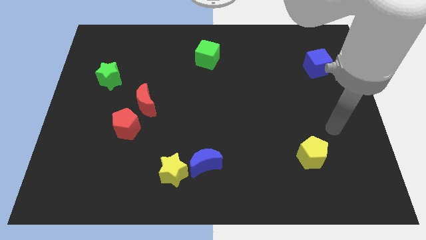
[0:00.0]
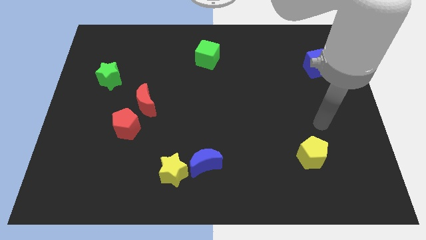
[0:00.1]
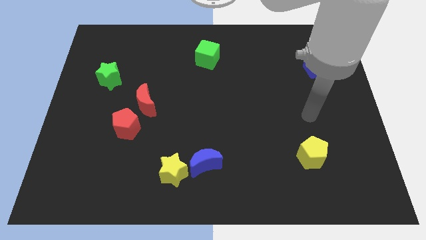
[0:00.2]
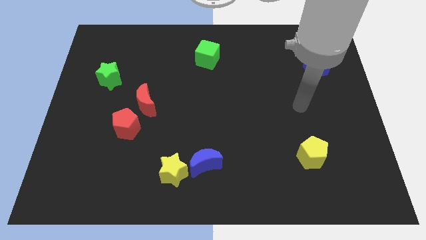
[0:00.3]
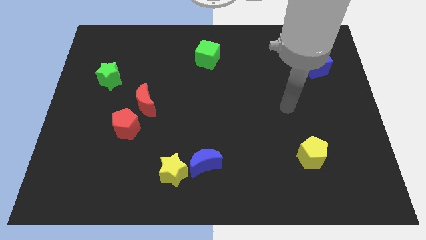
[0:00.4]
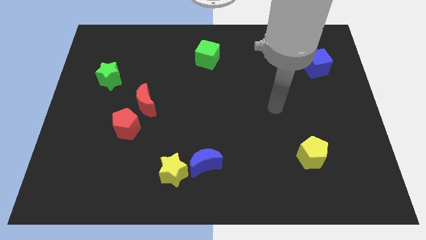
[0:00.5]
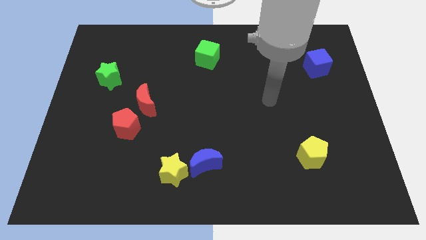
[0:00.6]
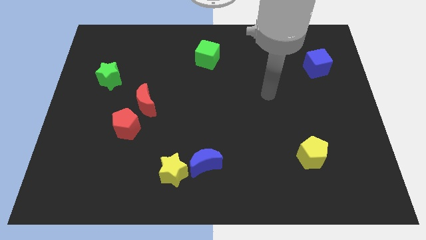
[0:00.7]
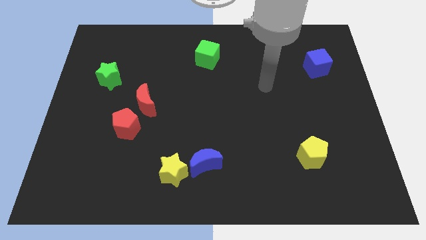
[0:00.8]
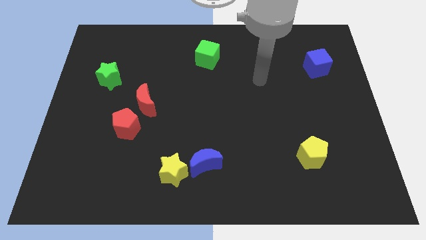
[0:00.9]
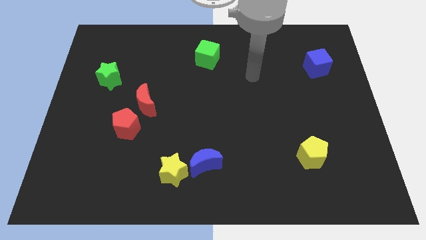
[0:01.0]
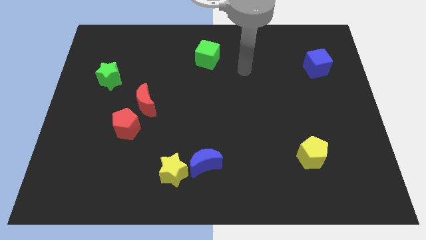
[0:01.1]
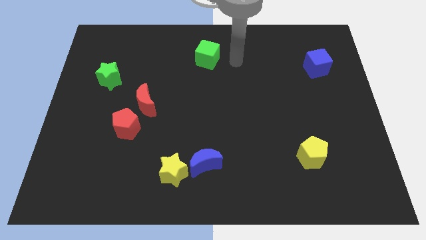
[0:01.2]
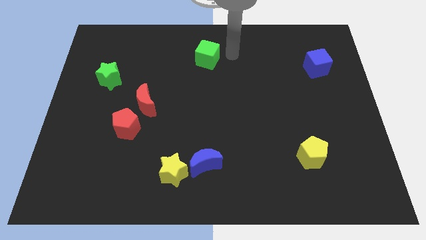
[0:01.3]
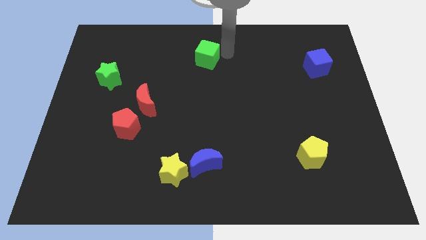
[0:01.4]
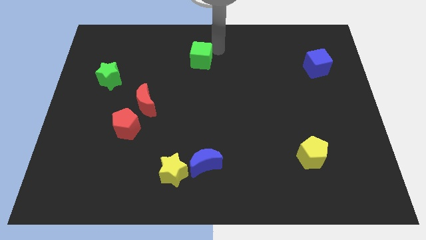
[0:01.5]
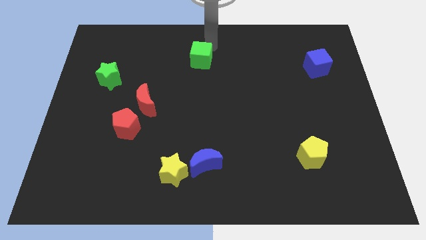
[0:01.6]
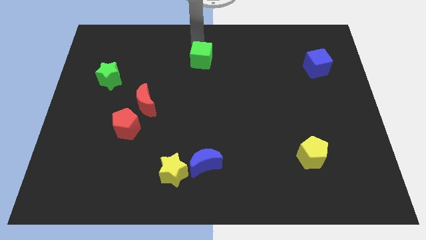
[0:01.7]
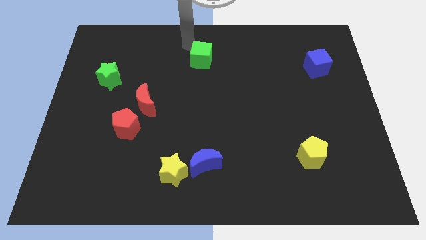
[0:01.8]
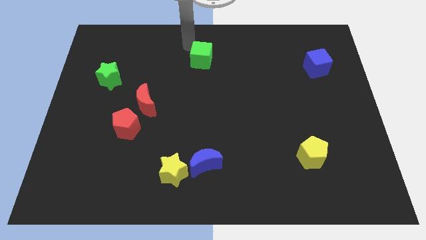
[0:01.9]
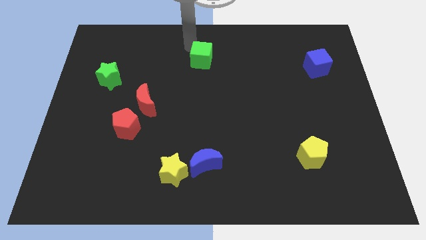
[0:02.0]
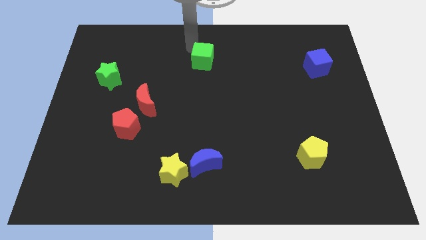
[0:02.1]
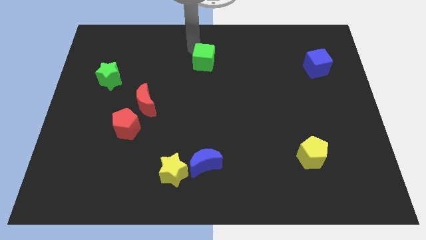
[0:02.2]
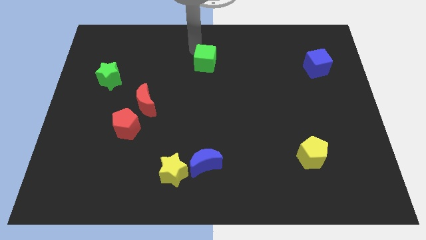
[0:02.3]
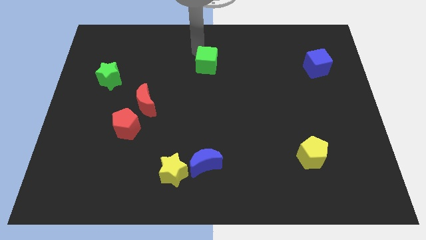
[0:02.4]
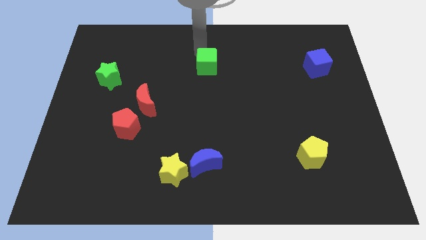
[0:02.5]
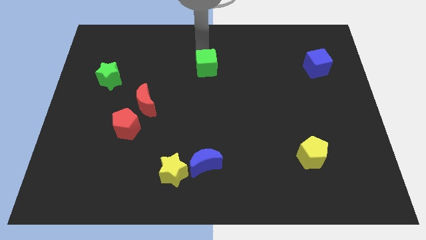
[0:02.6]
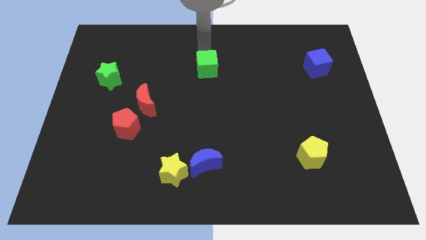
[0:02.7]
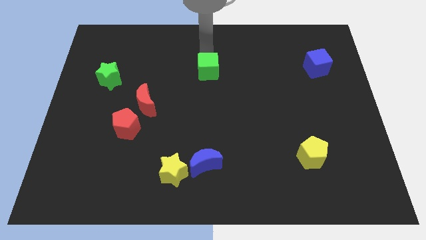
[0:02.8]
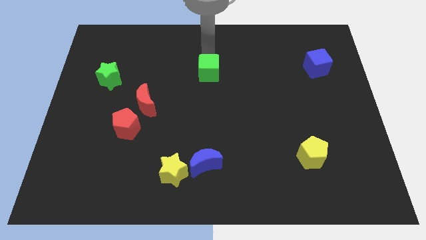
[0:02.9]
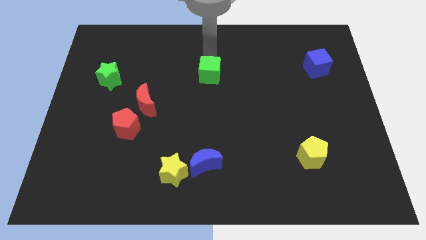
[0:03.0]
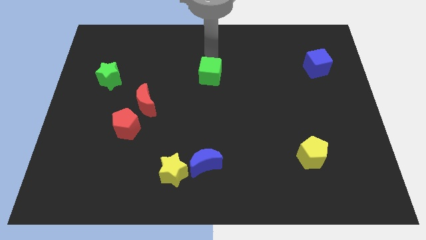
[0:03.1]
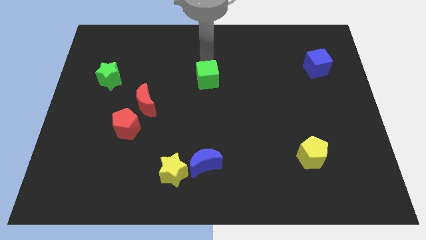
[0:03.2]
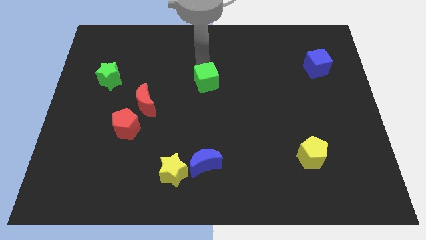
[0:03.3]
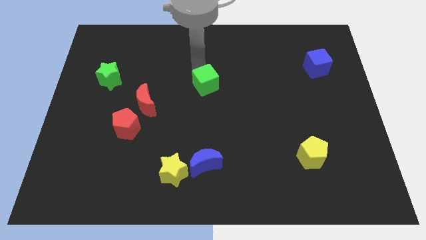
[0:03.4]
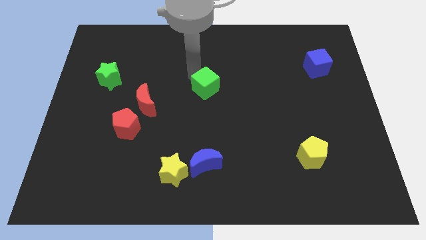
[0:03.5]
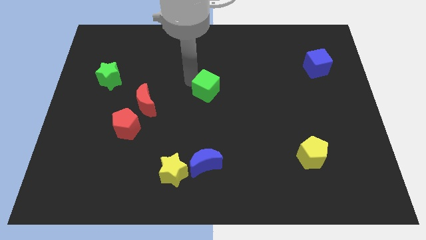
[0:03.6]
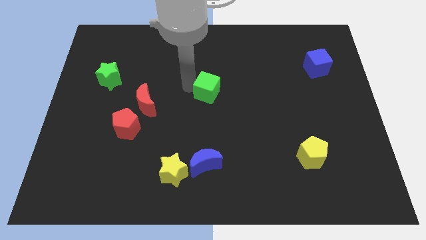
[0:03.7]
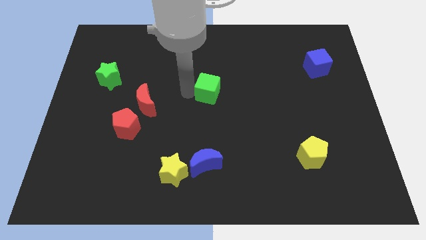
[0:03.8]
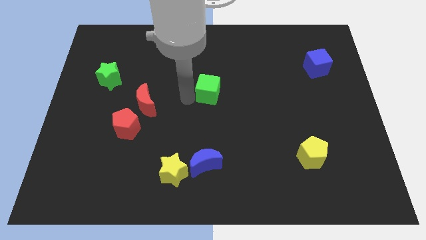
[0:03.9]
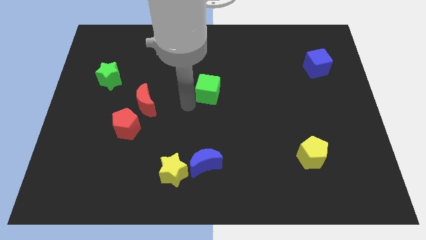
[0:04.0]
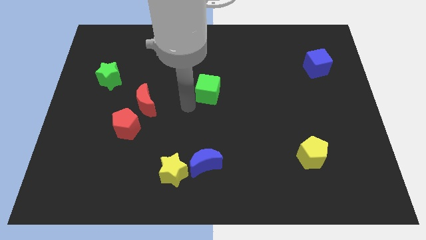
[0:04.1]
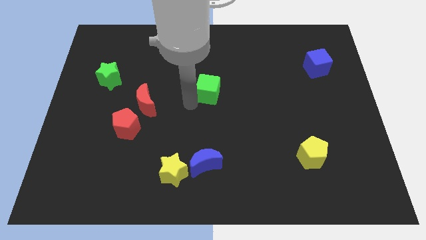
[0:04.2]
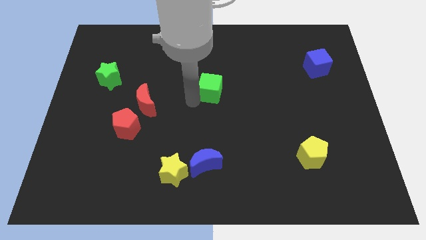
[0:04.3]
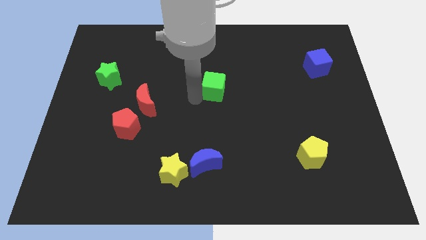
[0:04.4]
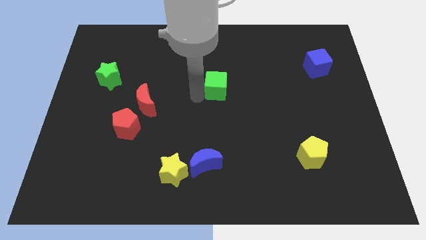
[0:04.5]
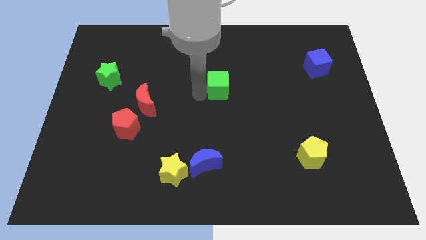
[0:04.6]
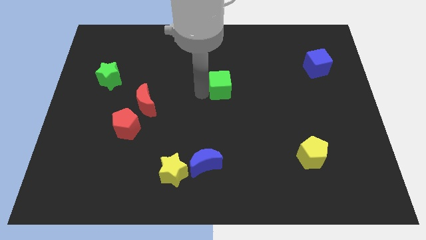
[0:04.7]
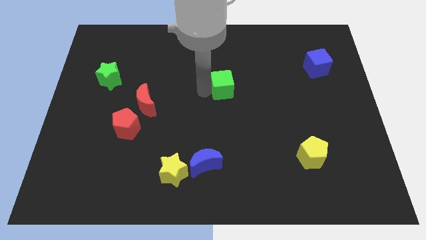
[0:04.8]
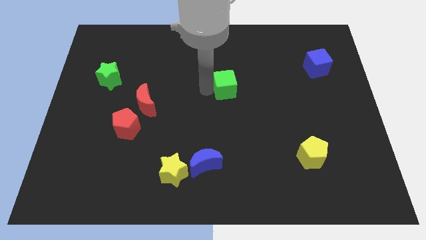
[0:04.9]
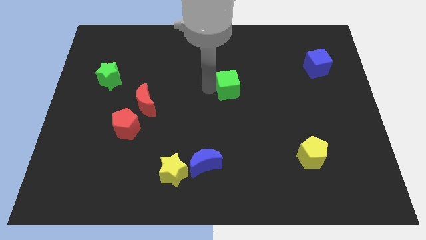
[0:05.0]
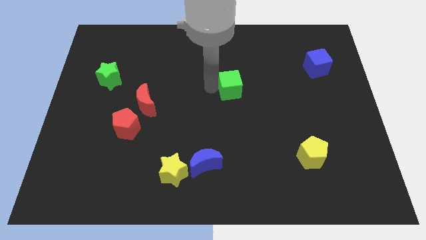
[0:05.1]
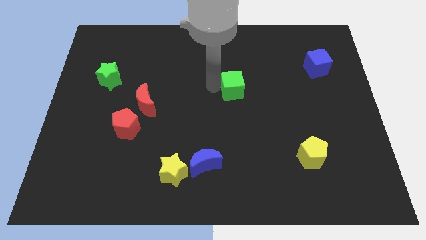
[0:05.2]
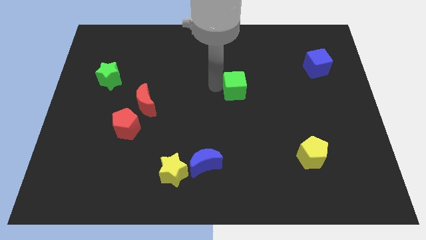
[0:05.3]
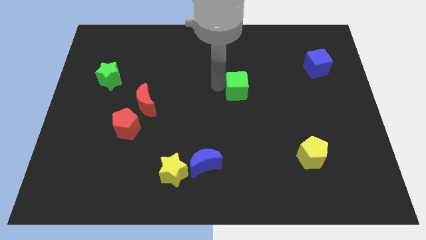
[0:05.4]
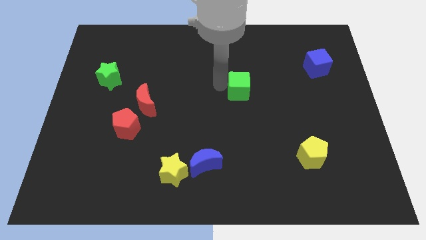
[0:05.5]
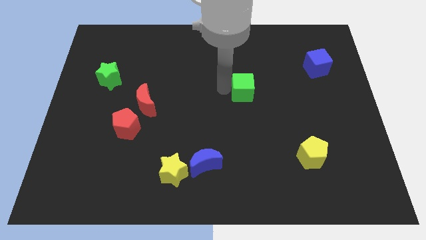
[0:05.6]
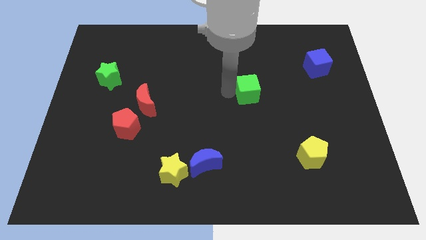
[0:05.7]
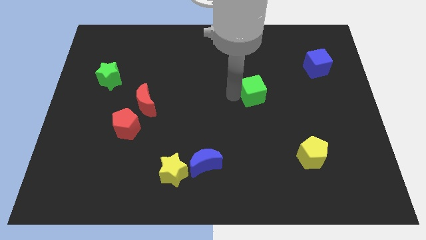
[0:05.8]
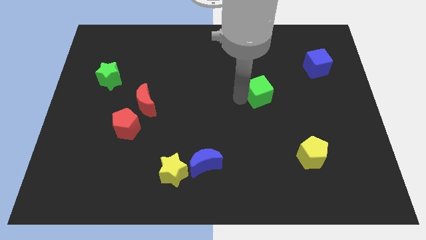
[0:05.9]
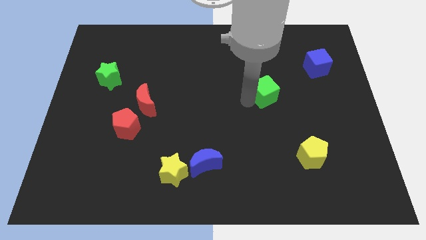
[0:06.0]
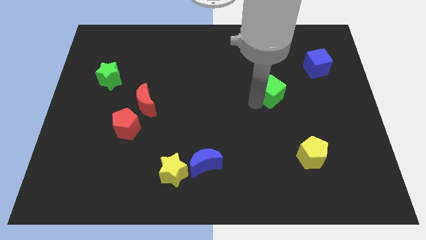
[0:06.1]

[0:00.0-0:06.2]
push the green cube down and to the right diagonally

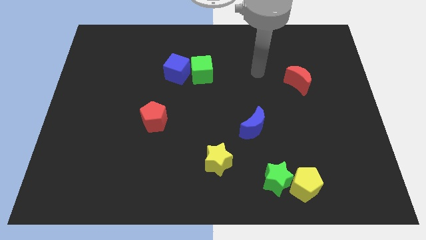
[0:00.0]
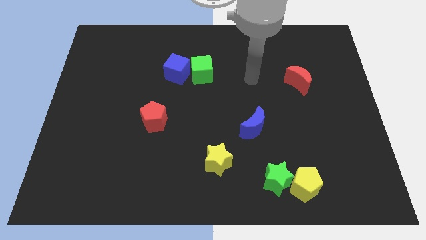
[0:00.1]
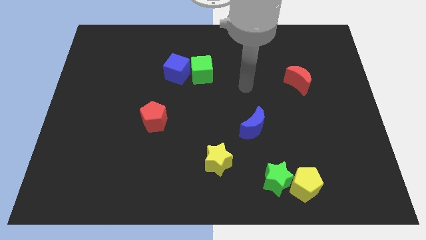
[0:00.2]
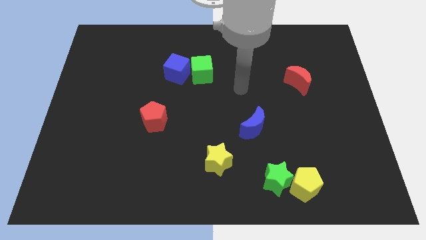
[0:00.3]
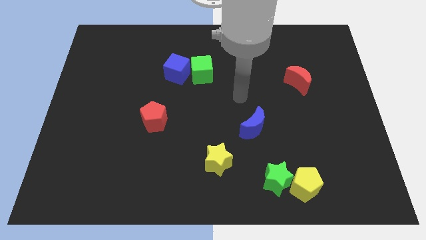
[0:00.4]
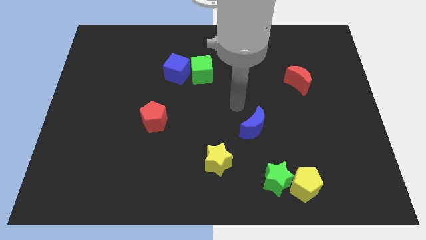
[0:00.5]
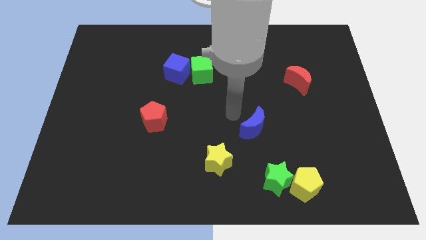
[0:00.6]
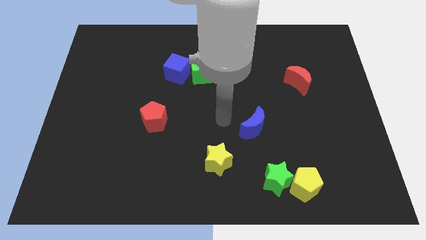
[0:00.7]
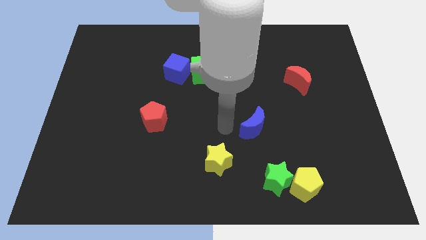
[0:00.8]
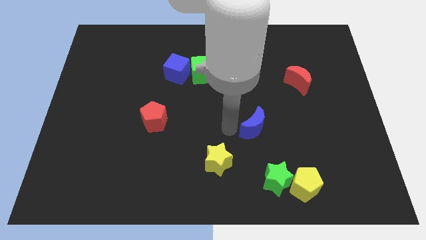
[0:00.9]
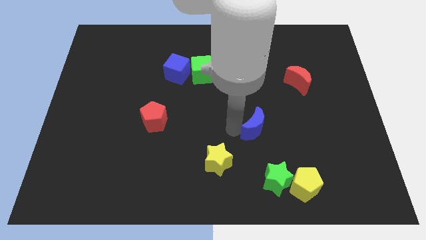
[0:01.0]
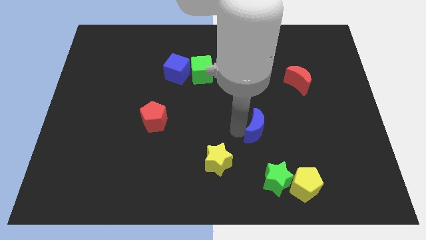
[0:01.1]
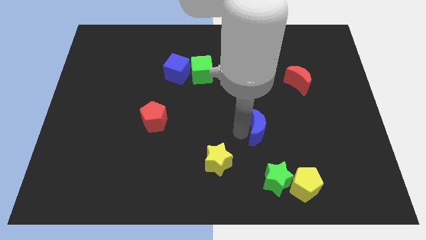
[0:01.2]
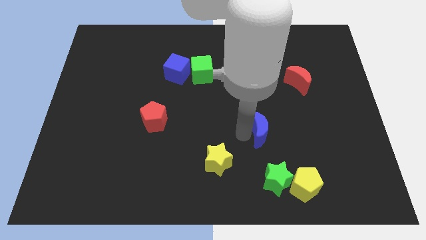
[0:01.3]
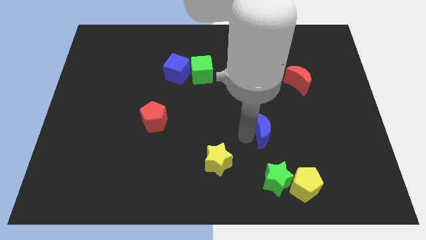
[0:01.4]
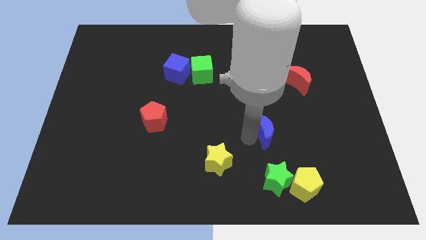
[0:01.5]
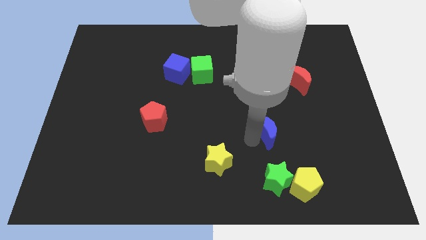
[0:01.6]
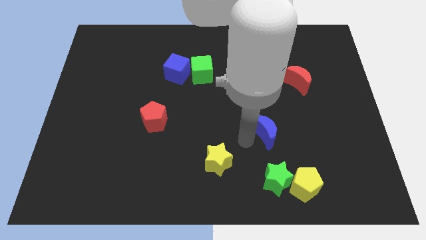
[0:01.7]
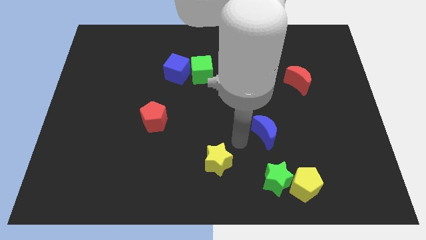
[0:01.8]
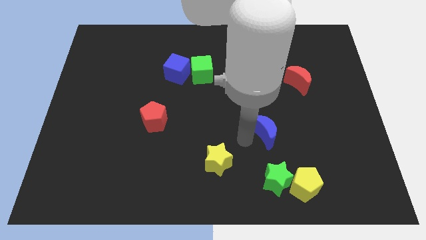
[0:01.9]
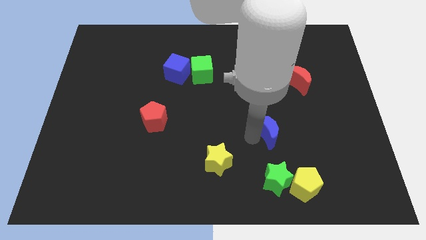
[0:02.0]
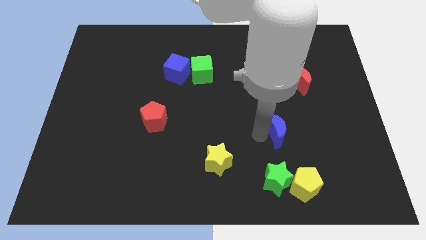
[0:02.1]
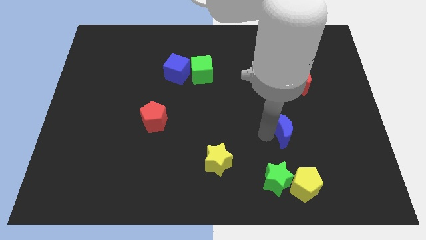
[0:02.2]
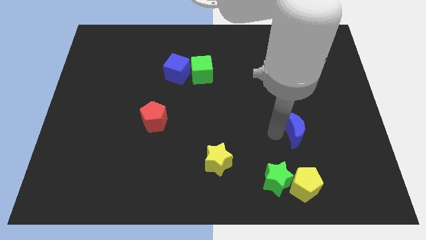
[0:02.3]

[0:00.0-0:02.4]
push the blue moon slightly right
